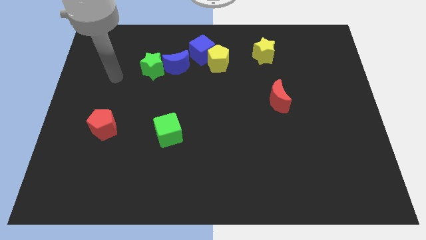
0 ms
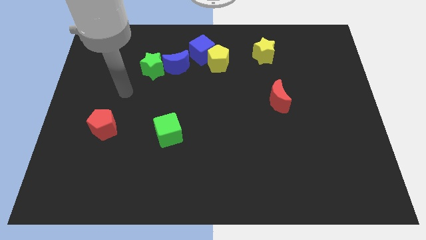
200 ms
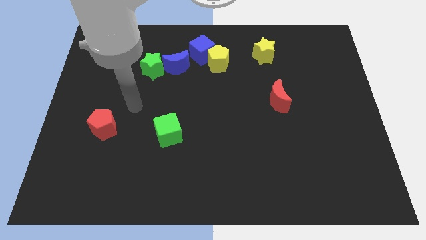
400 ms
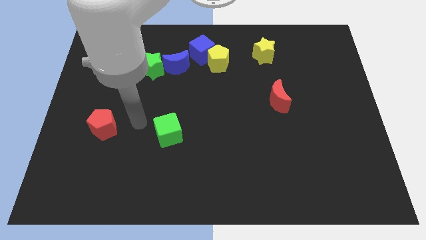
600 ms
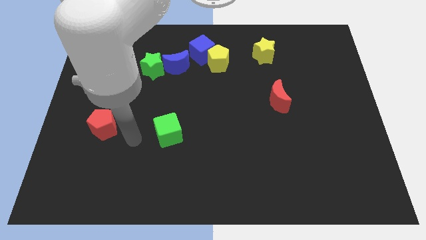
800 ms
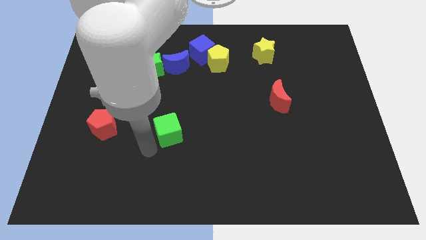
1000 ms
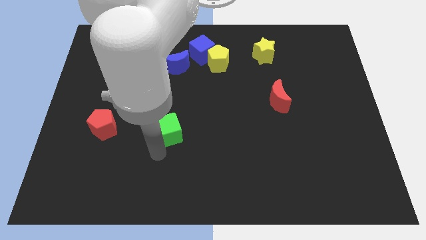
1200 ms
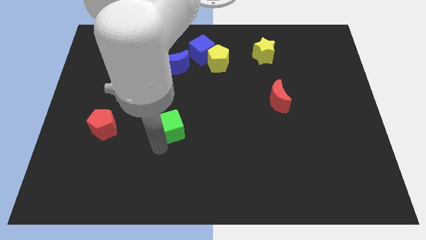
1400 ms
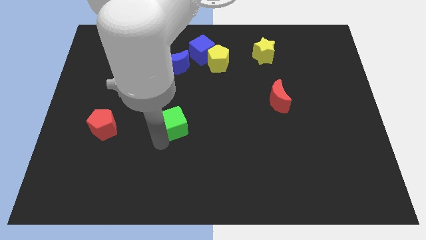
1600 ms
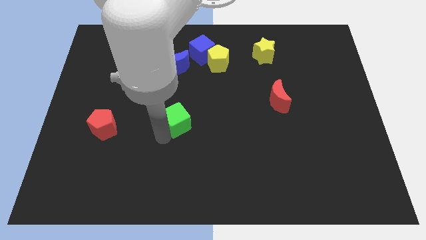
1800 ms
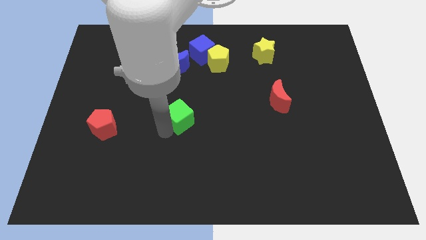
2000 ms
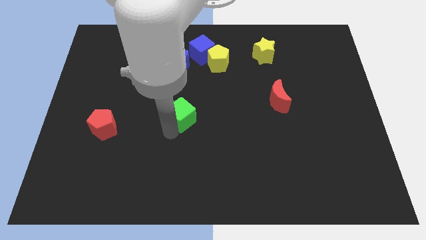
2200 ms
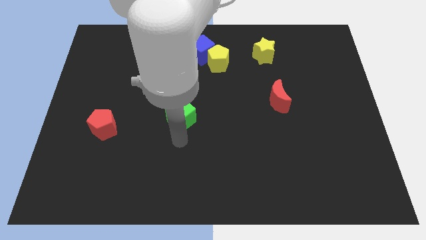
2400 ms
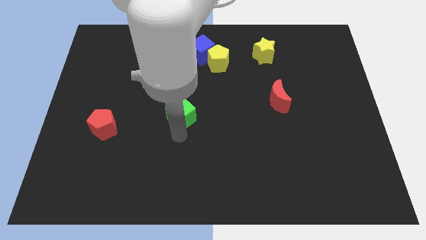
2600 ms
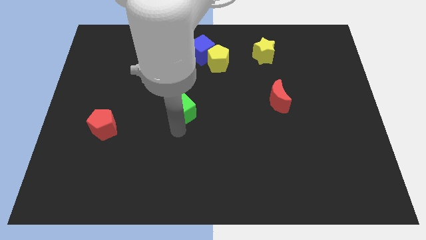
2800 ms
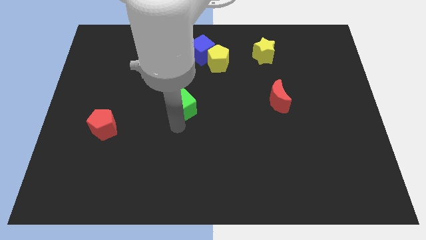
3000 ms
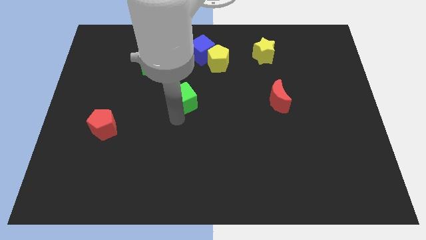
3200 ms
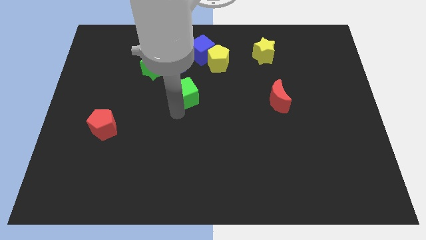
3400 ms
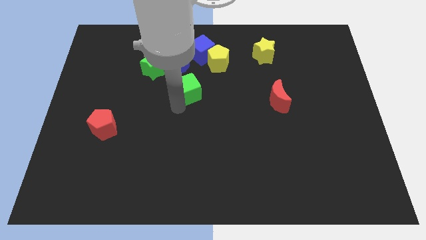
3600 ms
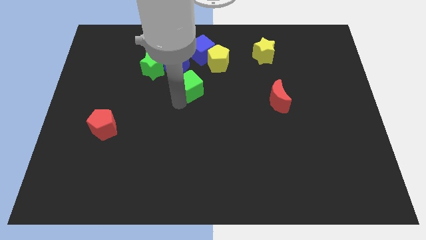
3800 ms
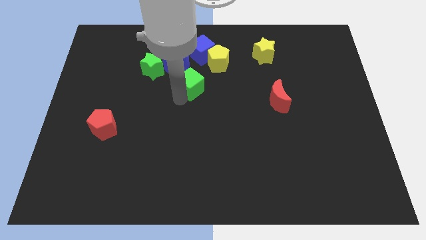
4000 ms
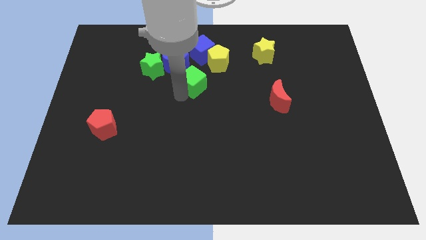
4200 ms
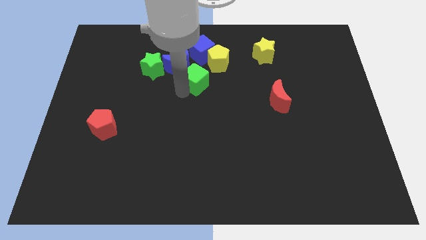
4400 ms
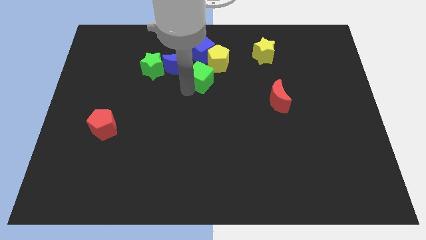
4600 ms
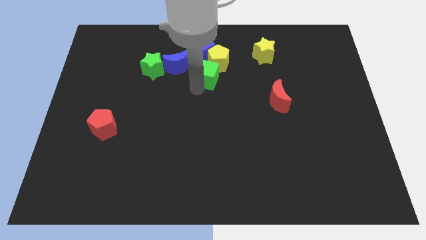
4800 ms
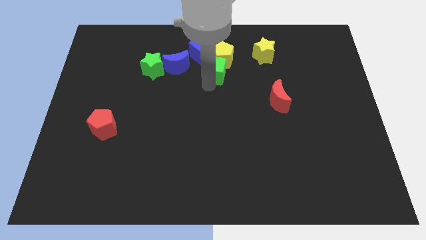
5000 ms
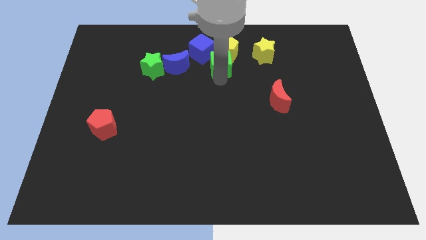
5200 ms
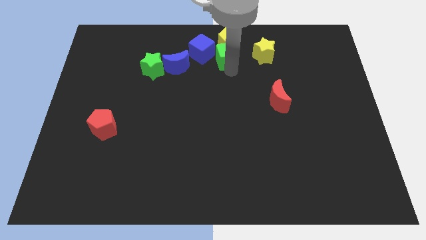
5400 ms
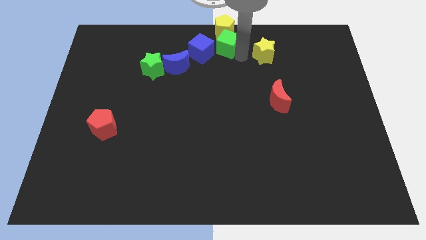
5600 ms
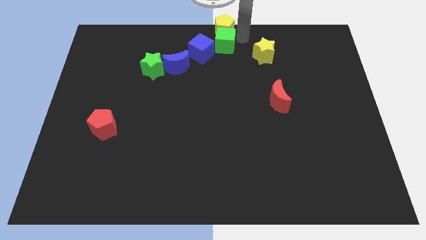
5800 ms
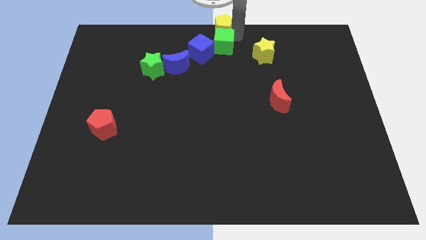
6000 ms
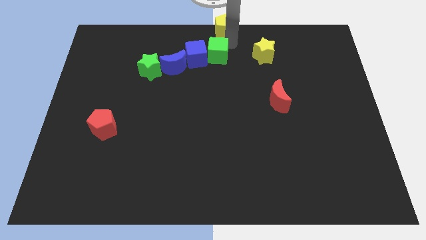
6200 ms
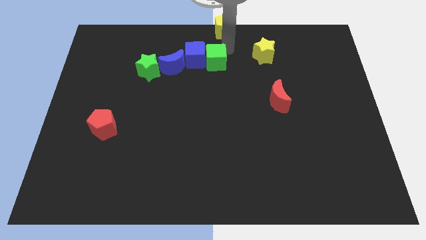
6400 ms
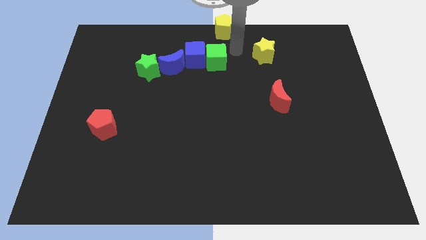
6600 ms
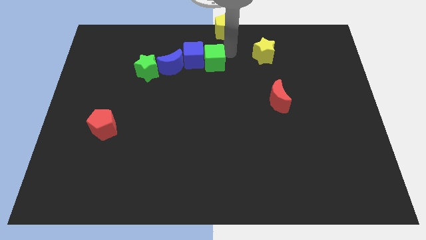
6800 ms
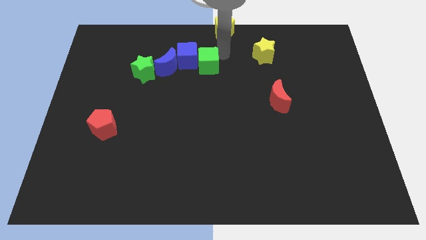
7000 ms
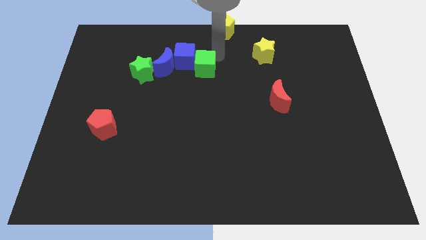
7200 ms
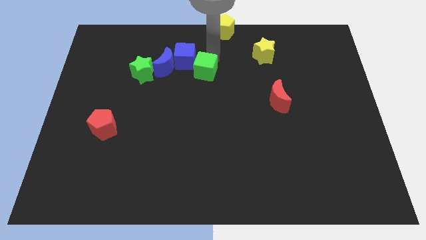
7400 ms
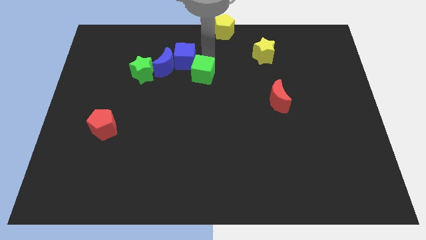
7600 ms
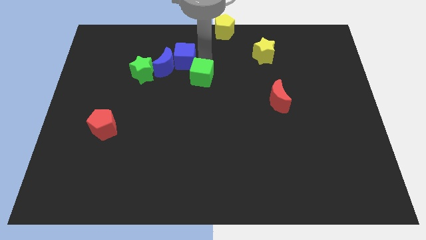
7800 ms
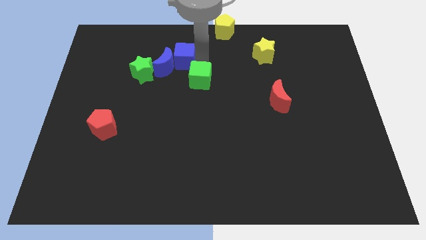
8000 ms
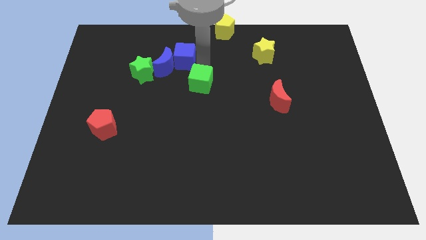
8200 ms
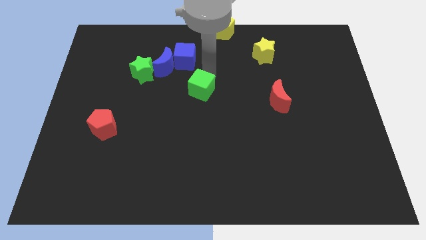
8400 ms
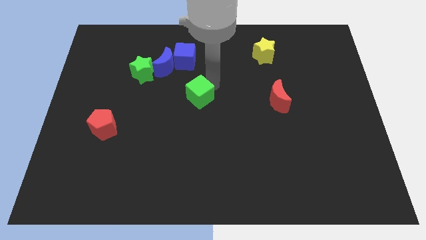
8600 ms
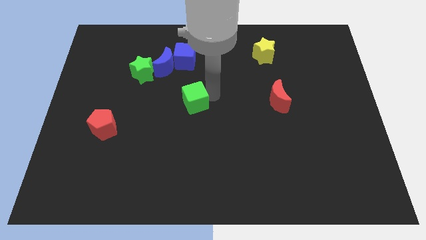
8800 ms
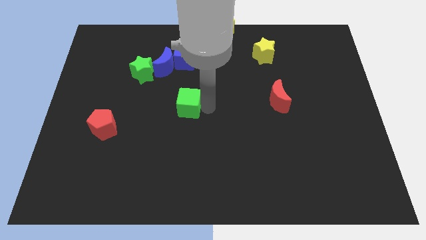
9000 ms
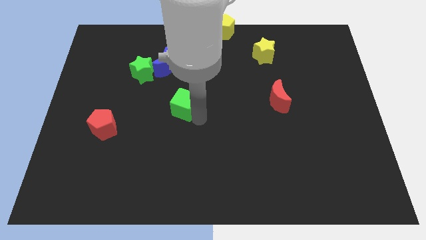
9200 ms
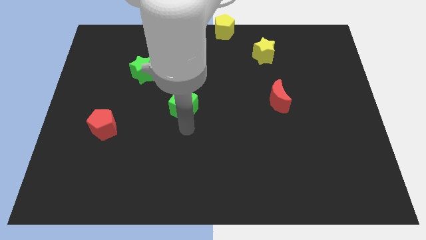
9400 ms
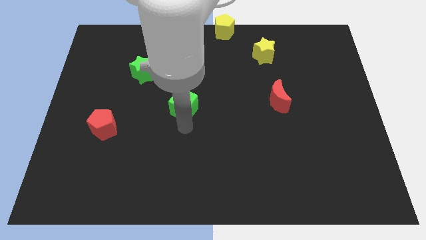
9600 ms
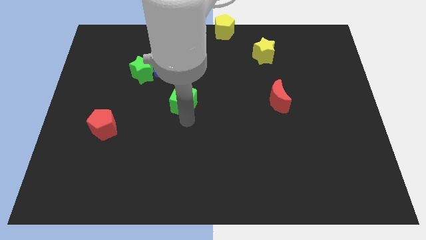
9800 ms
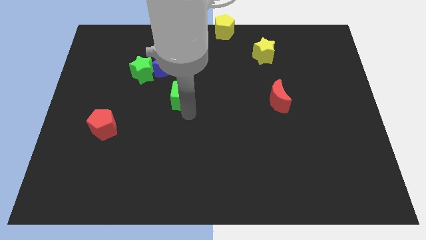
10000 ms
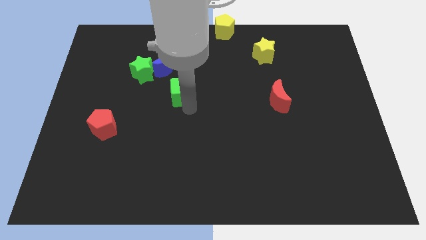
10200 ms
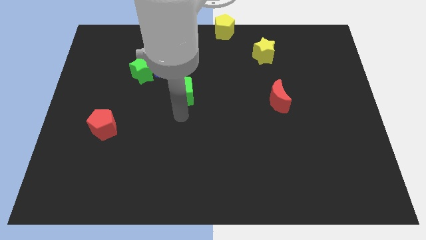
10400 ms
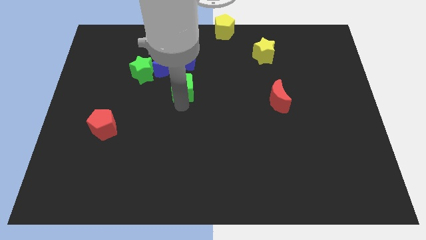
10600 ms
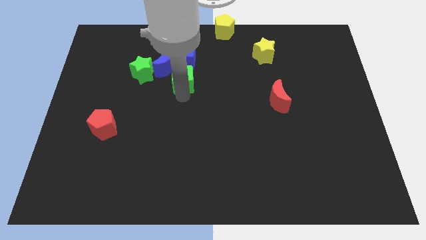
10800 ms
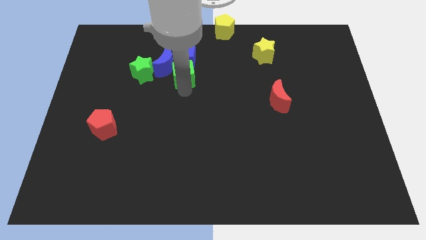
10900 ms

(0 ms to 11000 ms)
put the green cube towards the blue moon

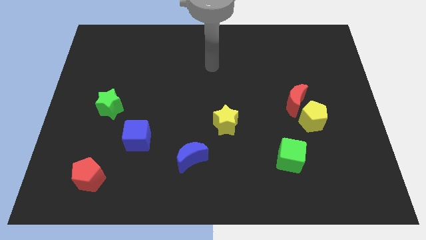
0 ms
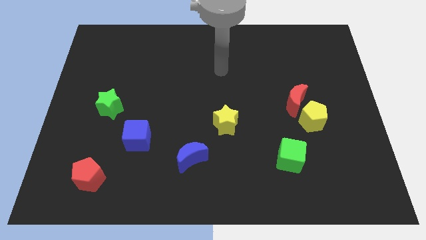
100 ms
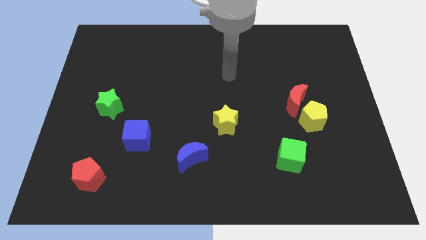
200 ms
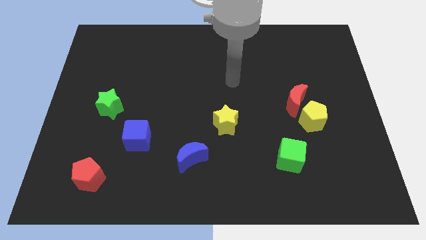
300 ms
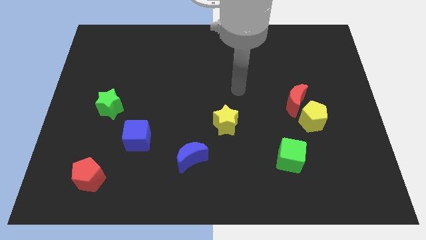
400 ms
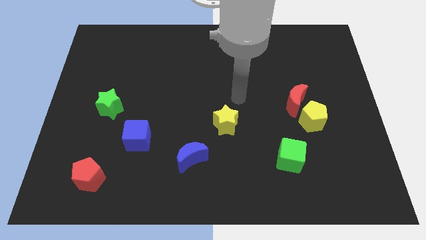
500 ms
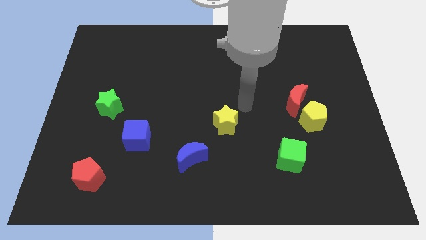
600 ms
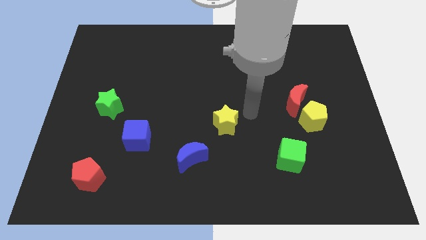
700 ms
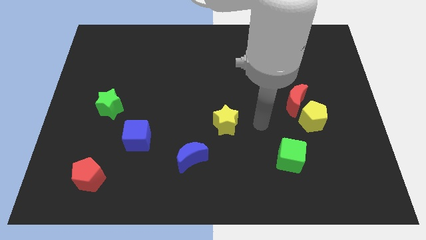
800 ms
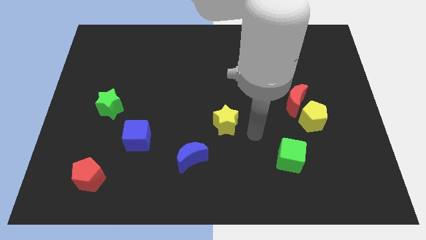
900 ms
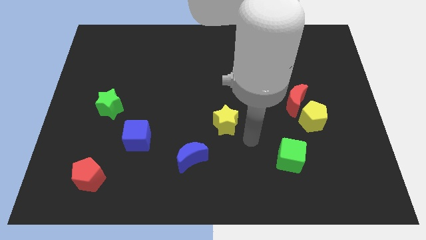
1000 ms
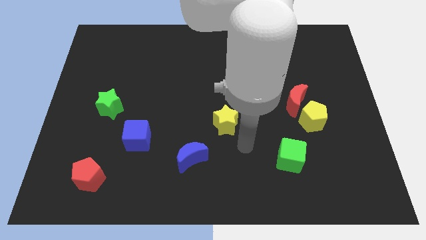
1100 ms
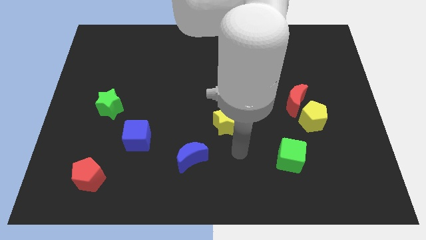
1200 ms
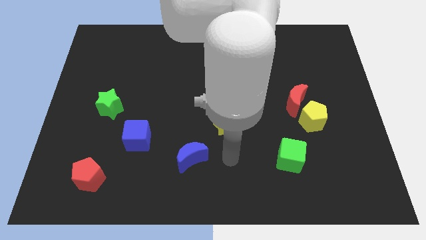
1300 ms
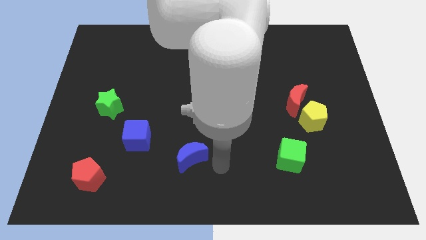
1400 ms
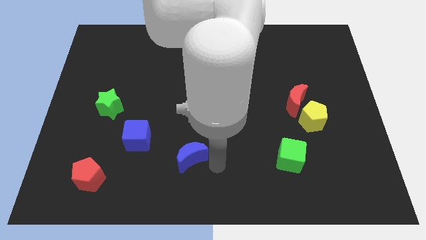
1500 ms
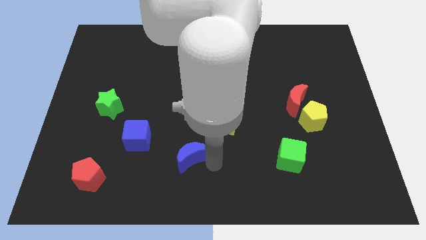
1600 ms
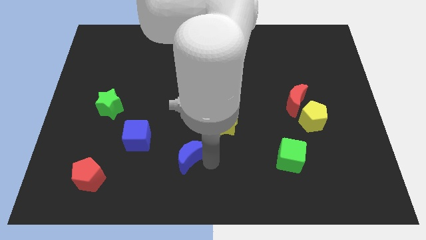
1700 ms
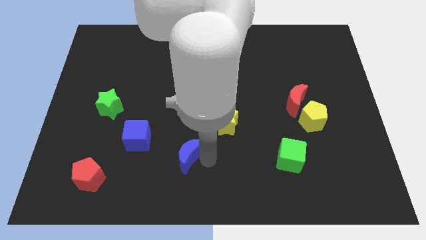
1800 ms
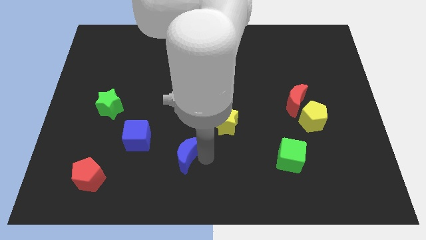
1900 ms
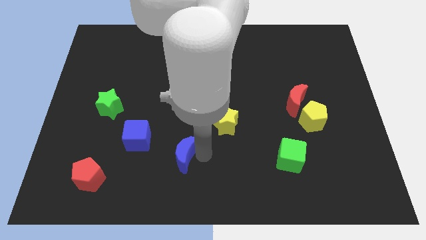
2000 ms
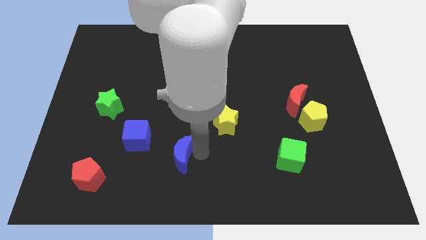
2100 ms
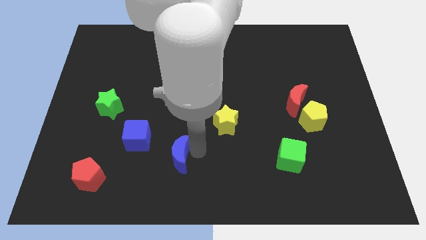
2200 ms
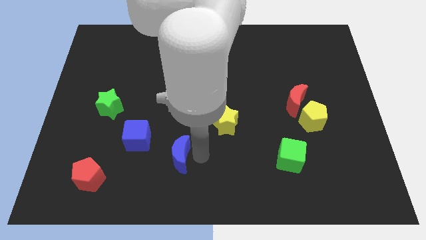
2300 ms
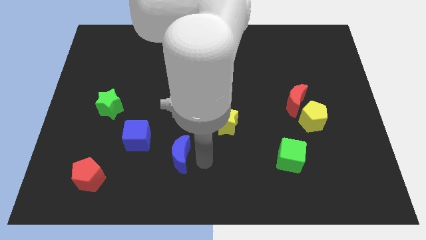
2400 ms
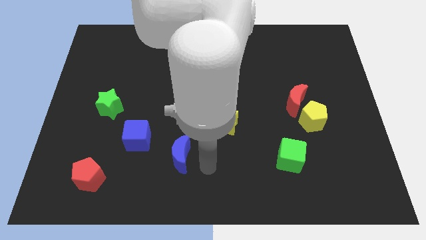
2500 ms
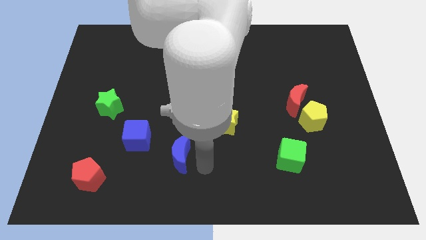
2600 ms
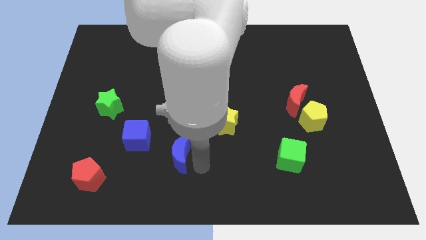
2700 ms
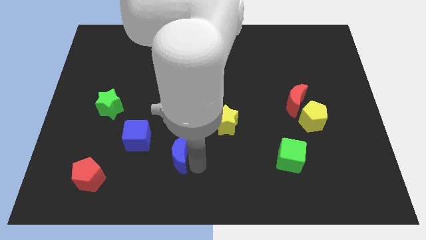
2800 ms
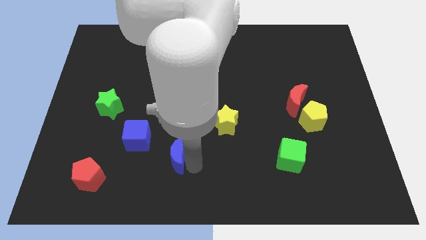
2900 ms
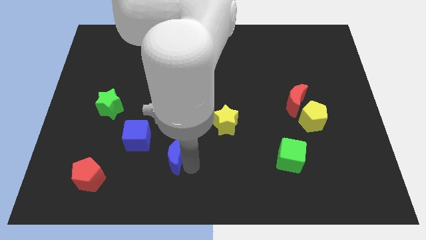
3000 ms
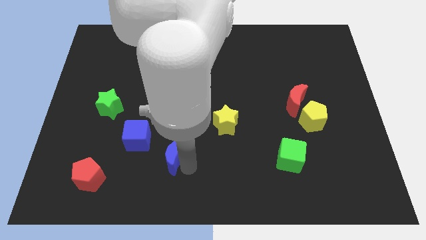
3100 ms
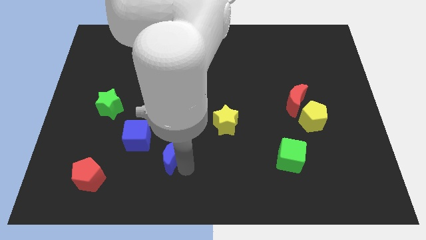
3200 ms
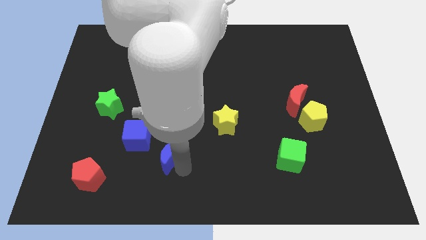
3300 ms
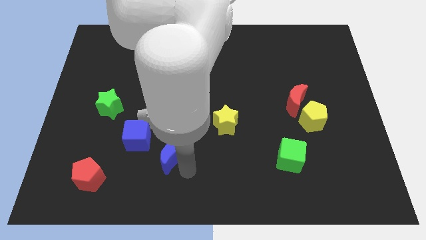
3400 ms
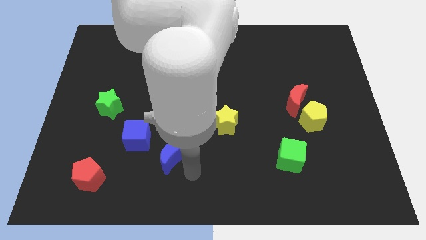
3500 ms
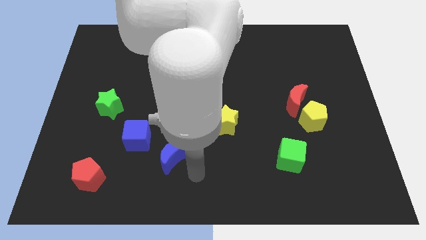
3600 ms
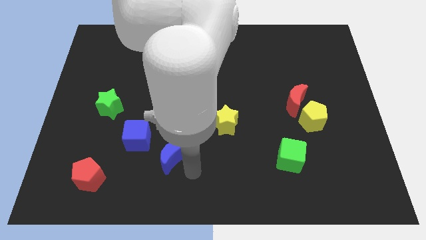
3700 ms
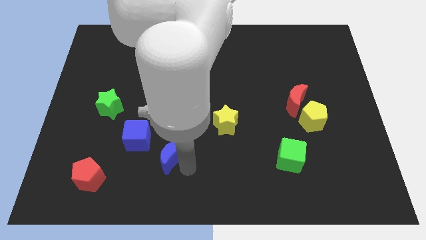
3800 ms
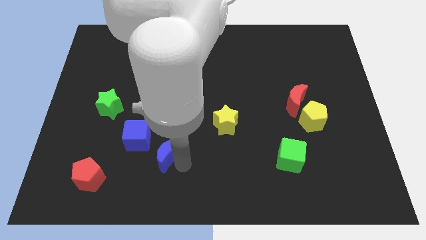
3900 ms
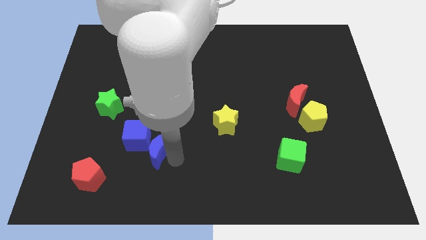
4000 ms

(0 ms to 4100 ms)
put the blue moon next to the blue cube
